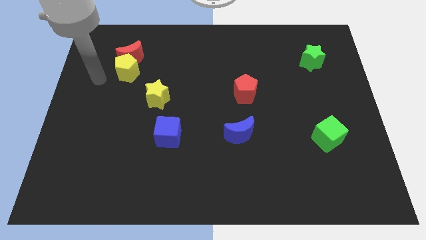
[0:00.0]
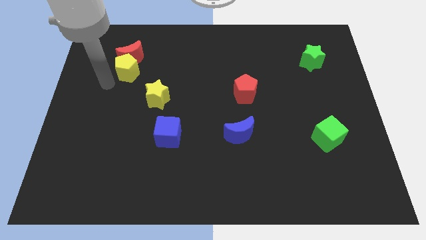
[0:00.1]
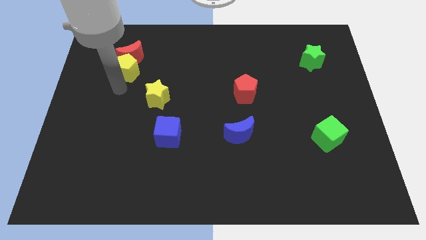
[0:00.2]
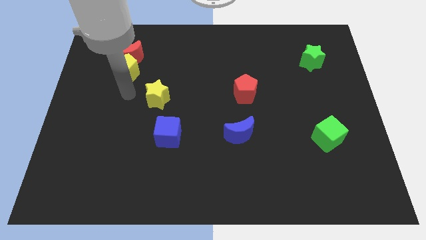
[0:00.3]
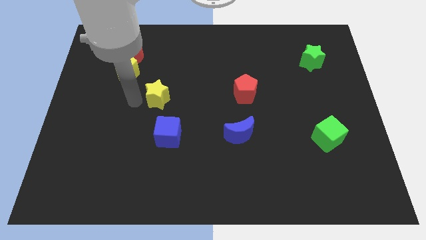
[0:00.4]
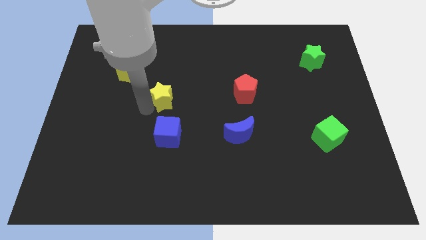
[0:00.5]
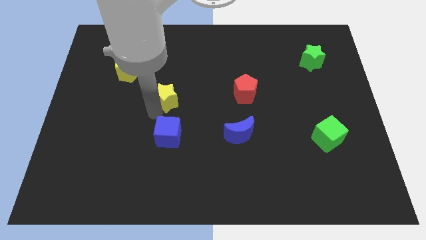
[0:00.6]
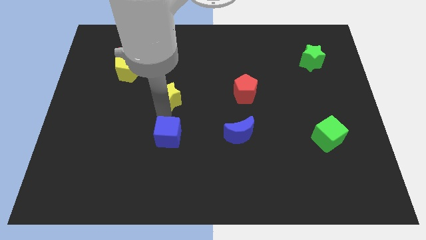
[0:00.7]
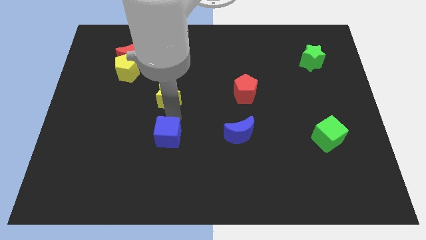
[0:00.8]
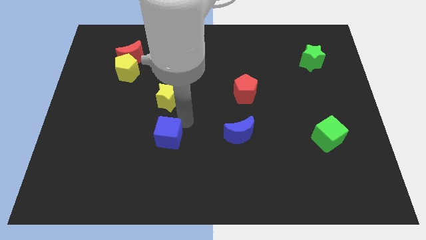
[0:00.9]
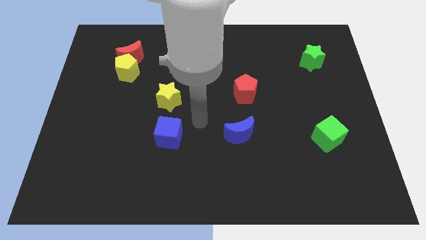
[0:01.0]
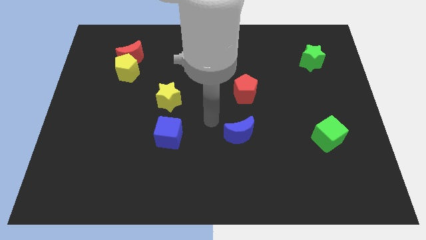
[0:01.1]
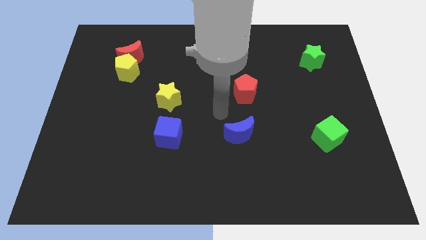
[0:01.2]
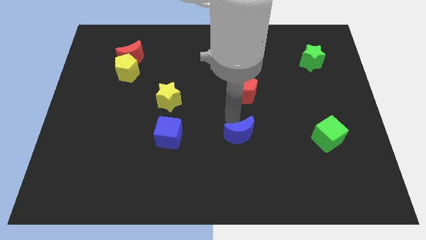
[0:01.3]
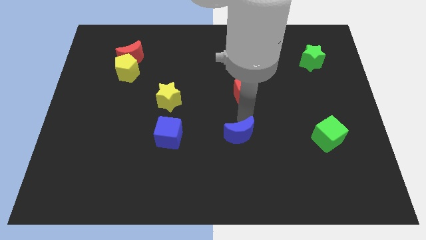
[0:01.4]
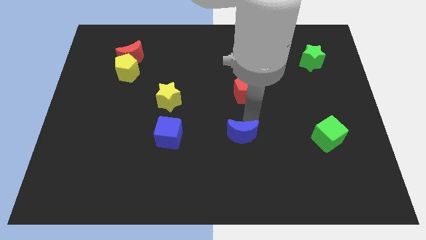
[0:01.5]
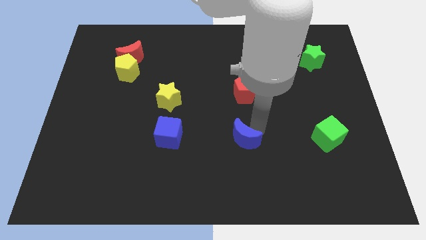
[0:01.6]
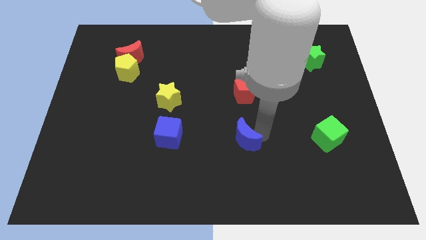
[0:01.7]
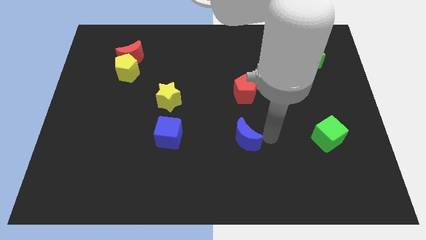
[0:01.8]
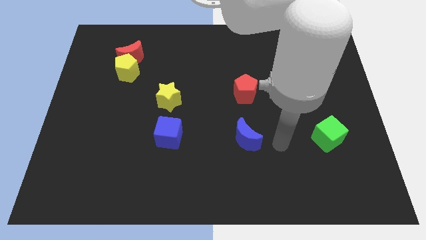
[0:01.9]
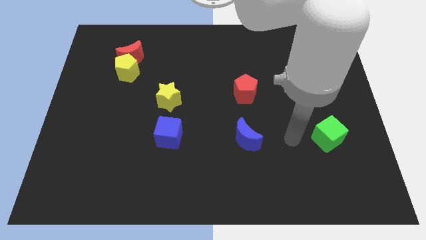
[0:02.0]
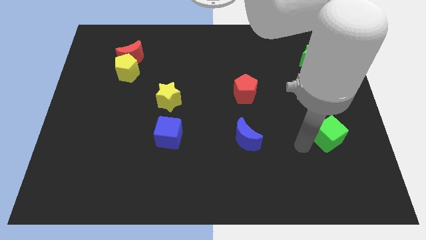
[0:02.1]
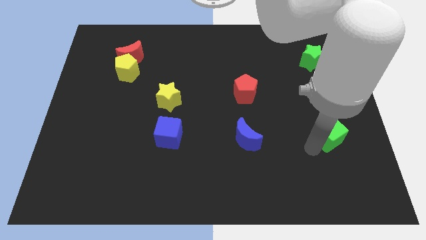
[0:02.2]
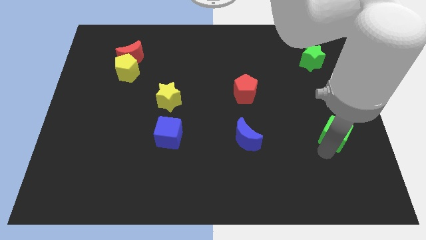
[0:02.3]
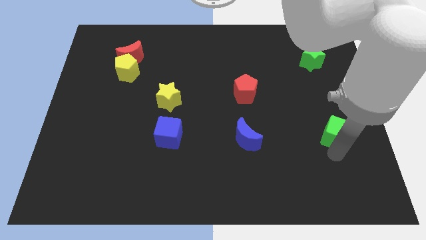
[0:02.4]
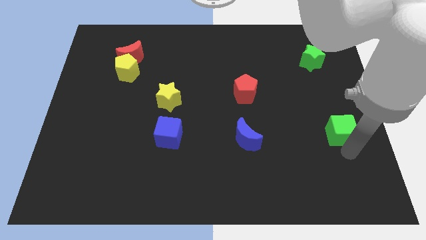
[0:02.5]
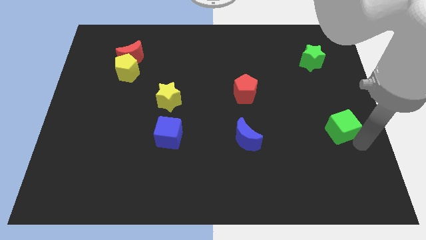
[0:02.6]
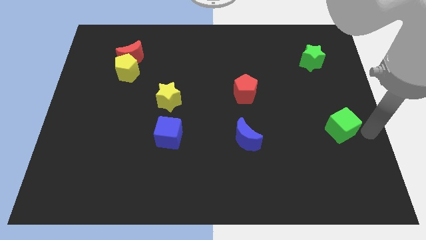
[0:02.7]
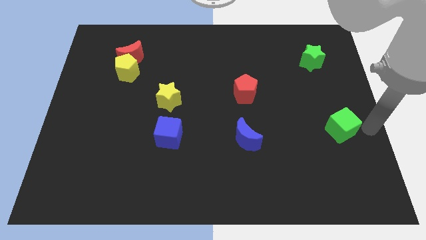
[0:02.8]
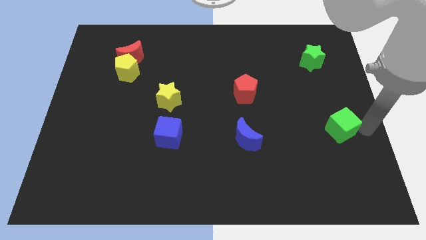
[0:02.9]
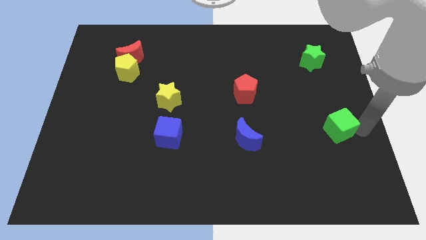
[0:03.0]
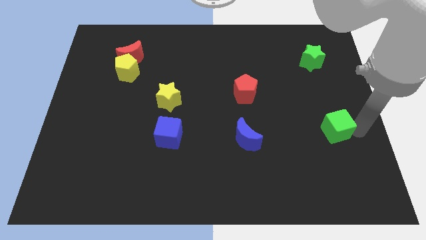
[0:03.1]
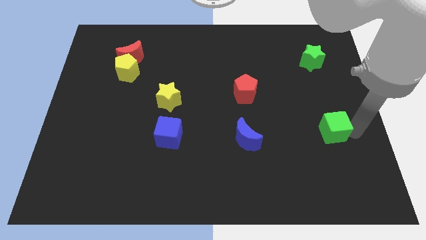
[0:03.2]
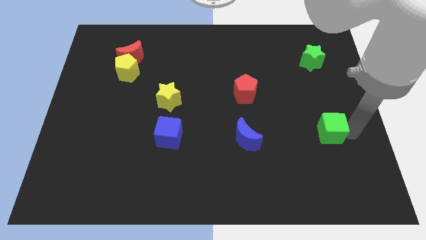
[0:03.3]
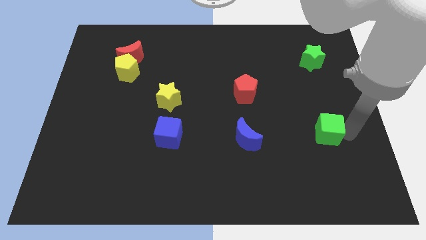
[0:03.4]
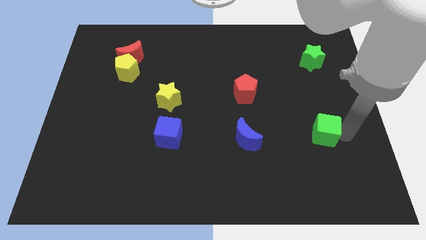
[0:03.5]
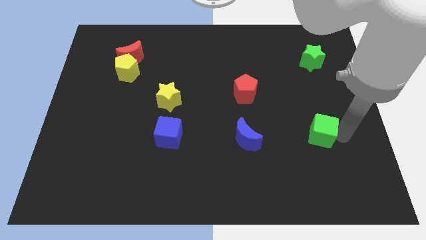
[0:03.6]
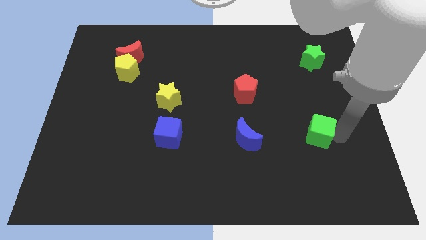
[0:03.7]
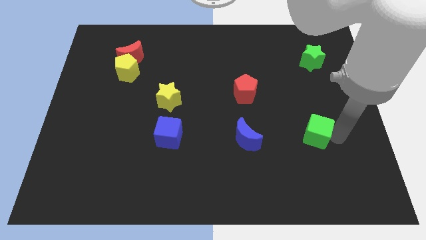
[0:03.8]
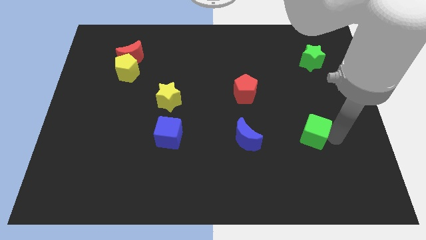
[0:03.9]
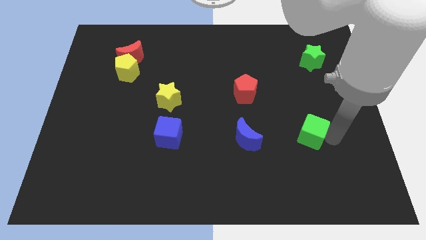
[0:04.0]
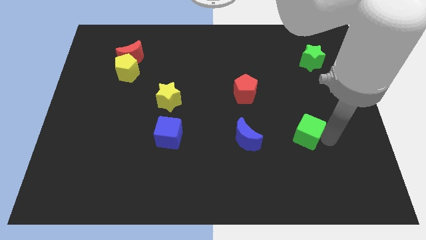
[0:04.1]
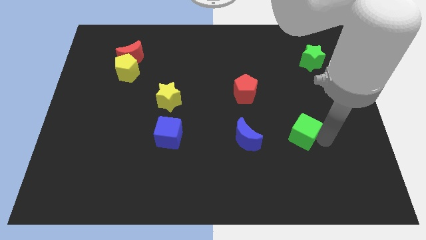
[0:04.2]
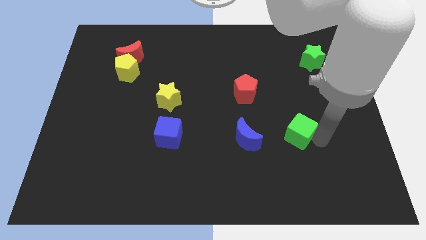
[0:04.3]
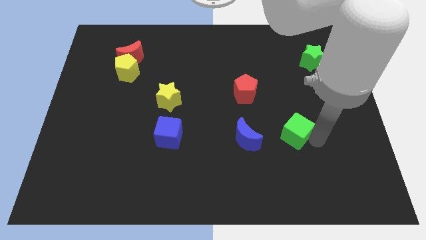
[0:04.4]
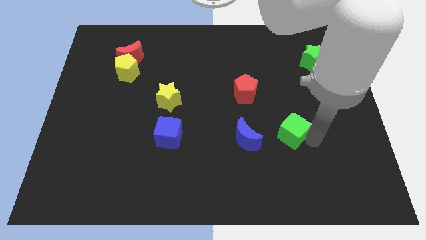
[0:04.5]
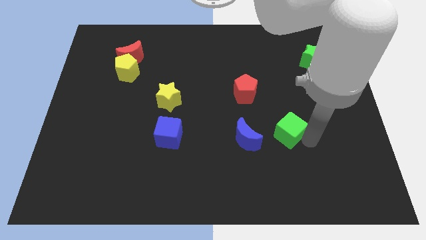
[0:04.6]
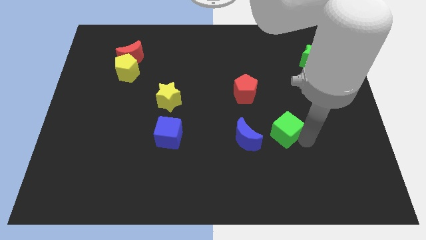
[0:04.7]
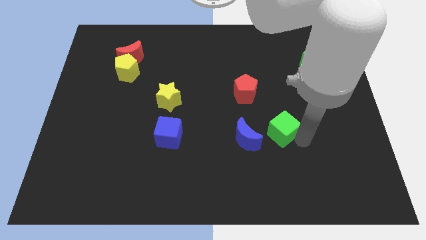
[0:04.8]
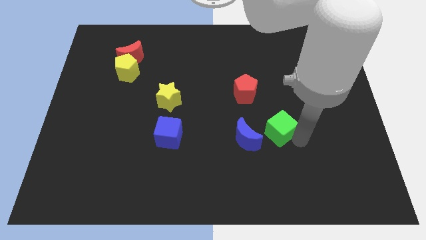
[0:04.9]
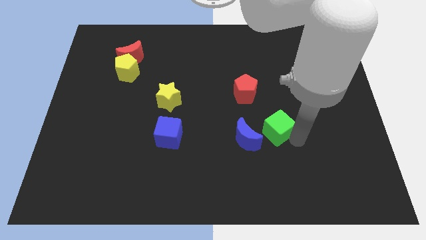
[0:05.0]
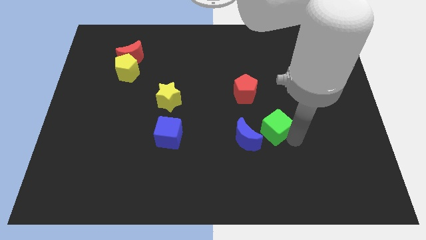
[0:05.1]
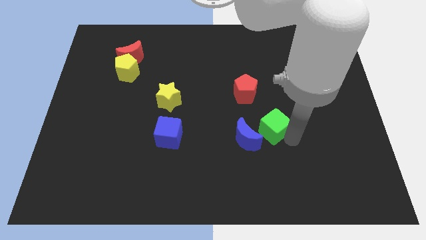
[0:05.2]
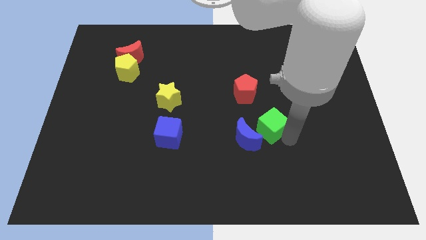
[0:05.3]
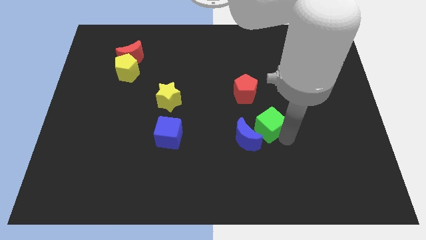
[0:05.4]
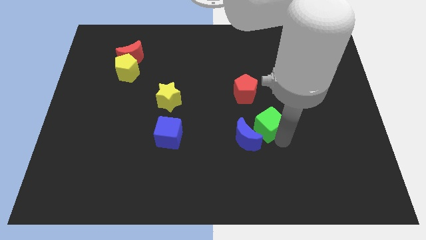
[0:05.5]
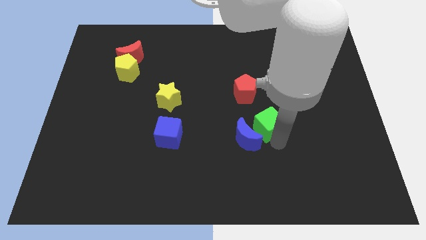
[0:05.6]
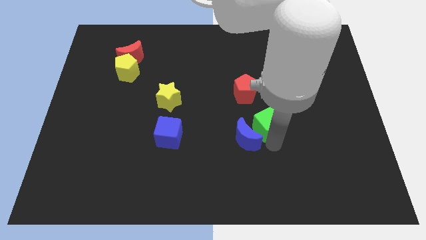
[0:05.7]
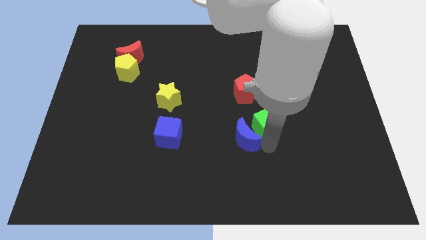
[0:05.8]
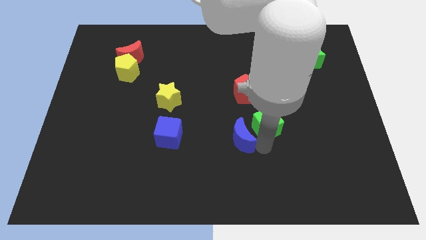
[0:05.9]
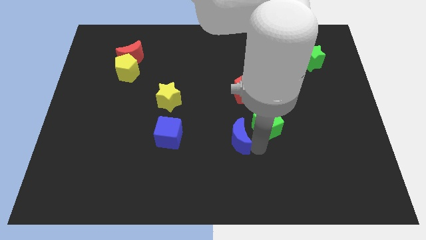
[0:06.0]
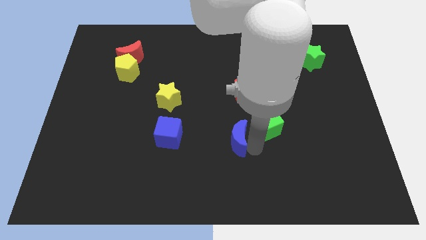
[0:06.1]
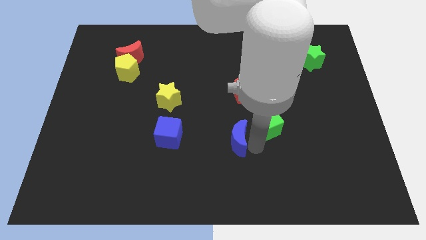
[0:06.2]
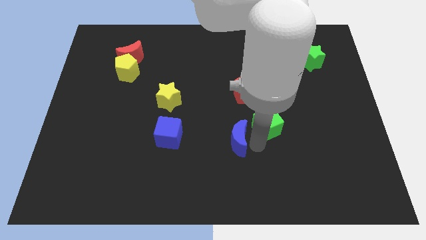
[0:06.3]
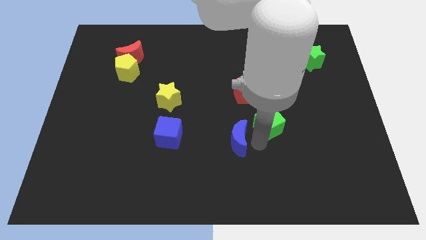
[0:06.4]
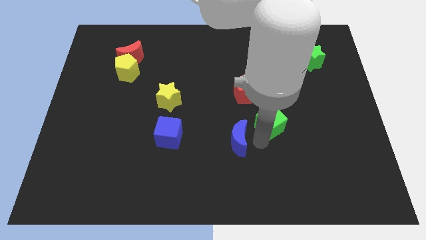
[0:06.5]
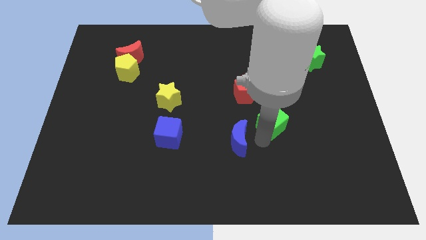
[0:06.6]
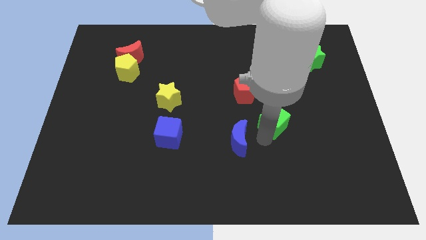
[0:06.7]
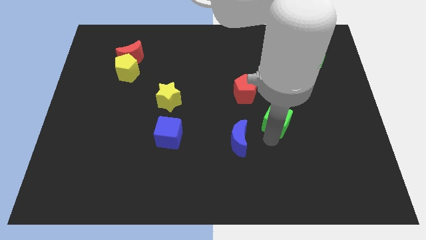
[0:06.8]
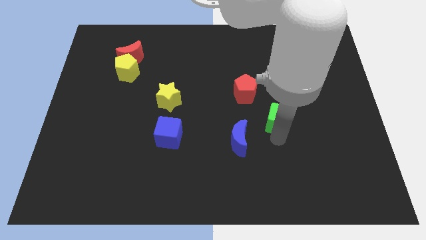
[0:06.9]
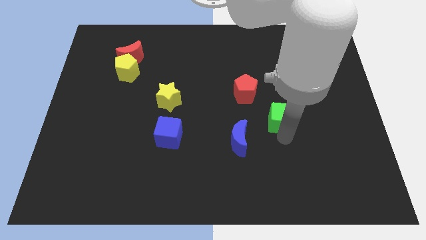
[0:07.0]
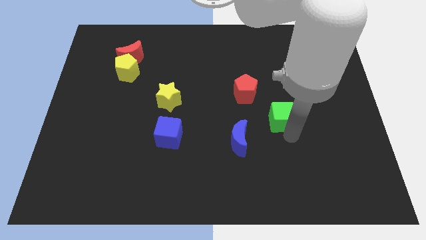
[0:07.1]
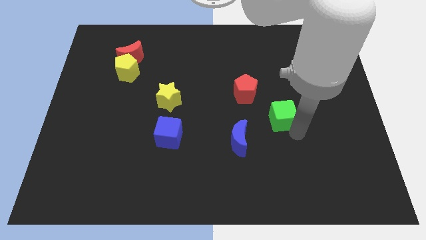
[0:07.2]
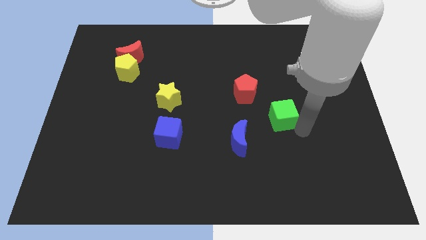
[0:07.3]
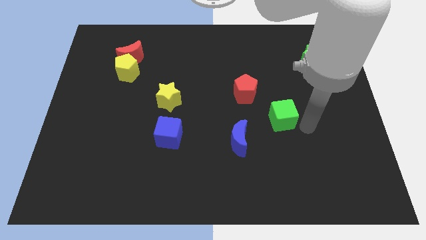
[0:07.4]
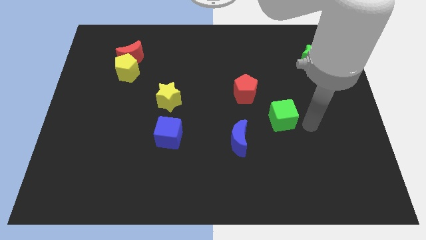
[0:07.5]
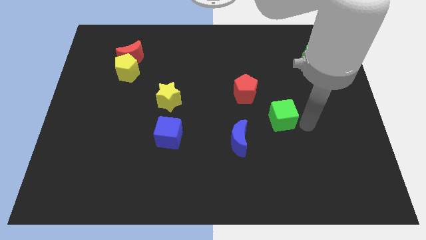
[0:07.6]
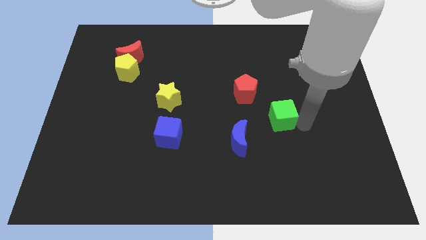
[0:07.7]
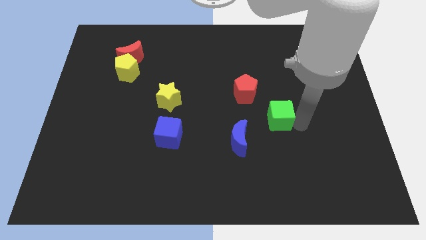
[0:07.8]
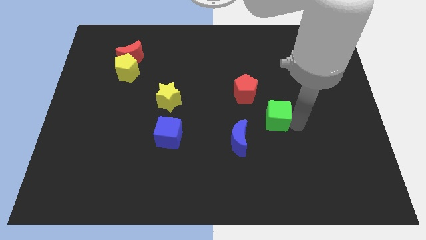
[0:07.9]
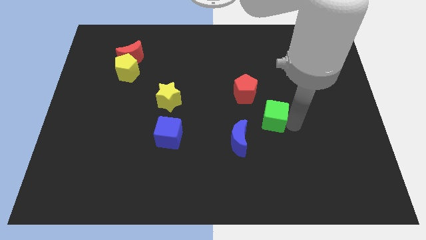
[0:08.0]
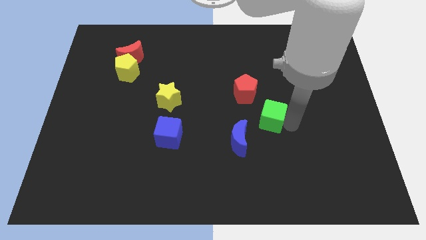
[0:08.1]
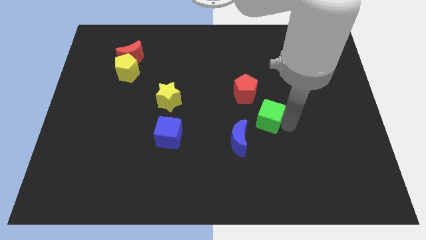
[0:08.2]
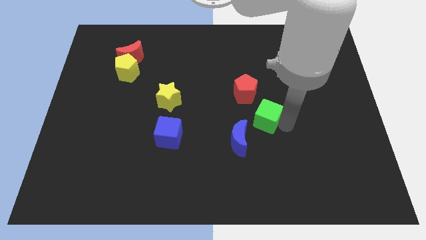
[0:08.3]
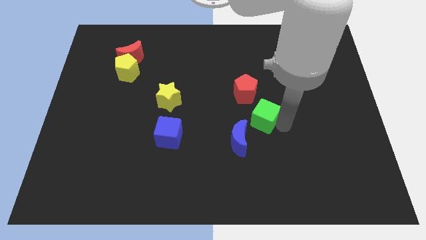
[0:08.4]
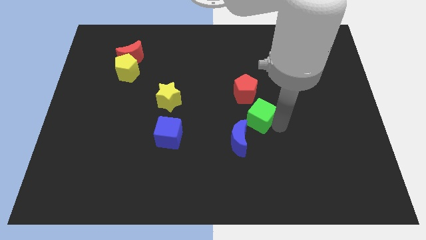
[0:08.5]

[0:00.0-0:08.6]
move the green cube to the center of the board
